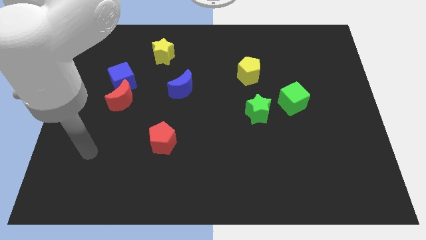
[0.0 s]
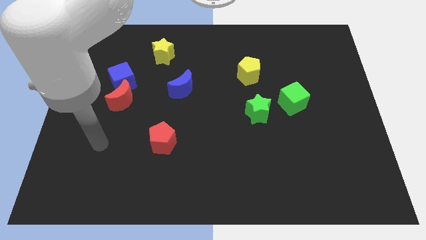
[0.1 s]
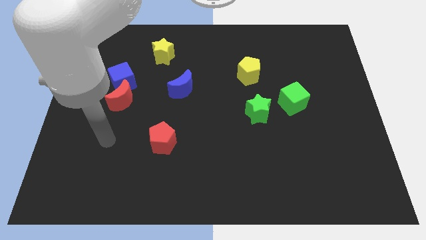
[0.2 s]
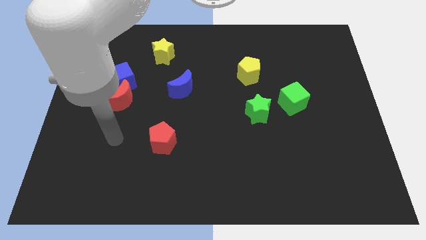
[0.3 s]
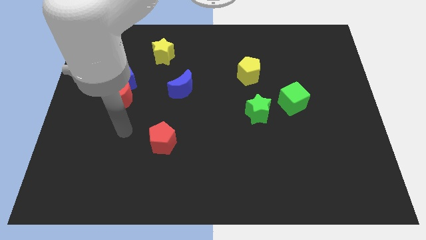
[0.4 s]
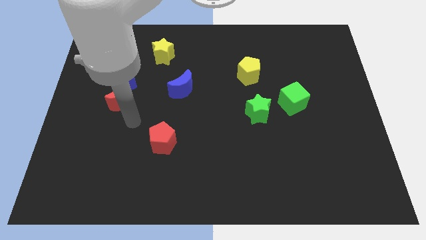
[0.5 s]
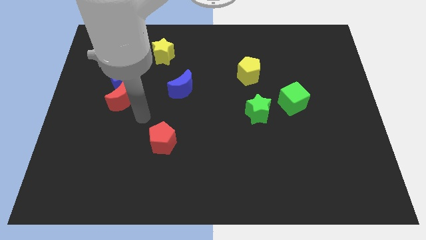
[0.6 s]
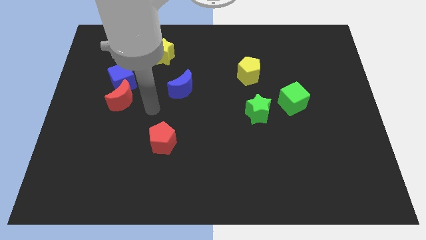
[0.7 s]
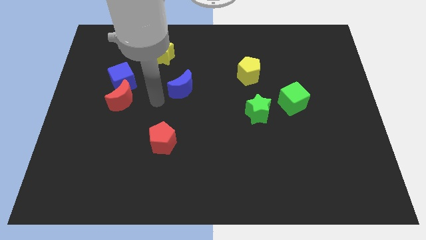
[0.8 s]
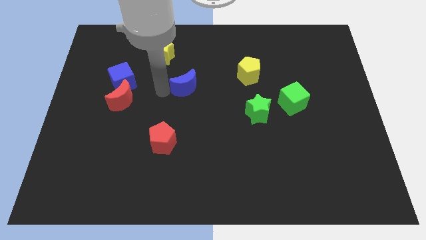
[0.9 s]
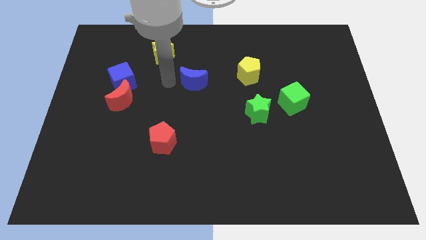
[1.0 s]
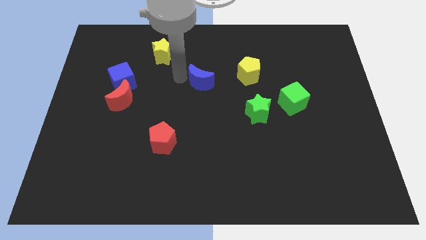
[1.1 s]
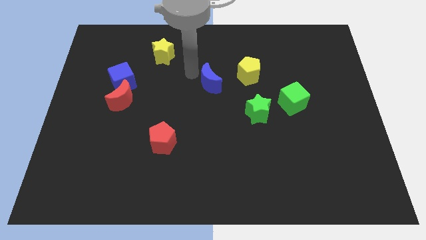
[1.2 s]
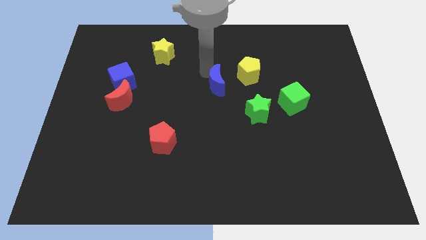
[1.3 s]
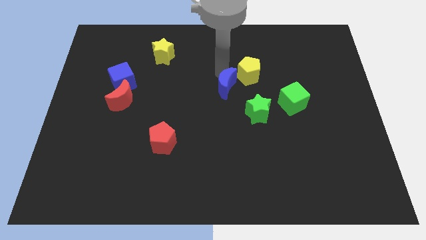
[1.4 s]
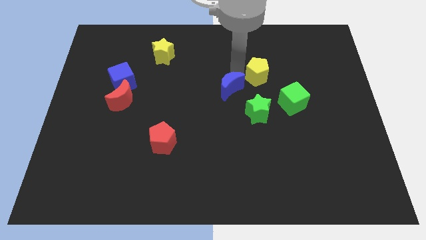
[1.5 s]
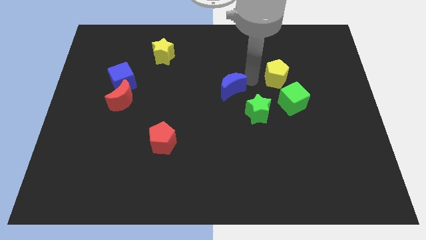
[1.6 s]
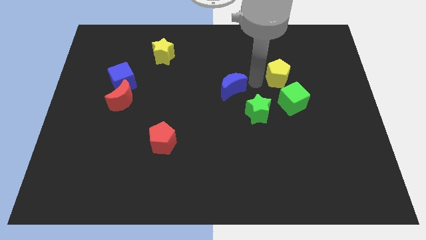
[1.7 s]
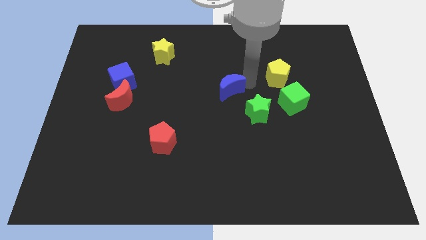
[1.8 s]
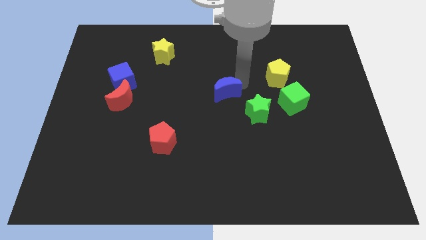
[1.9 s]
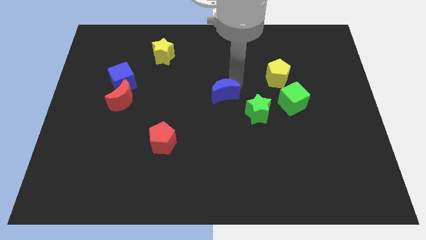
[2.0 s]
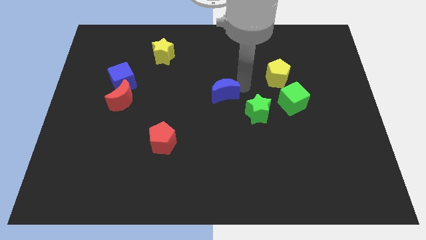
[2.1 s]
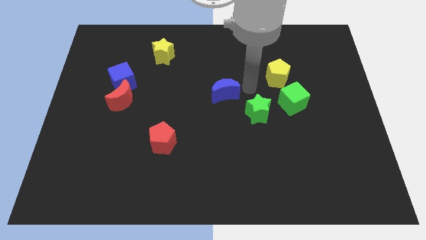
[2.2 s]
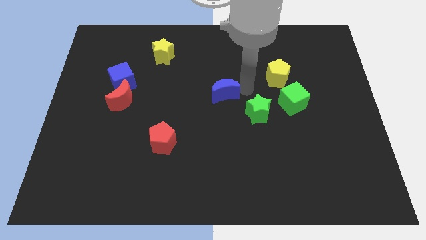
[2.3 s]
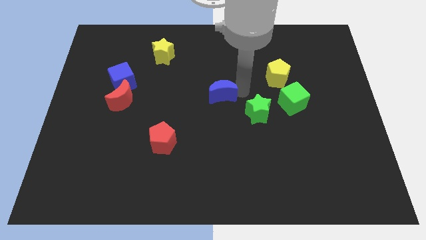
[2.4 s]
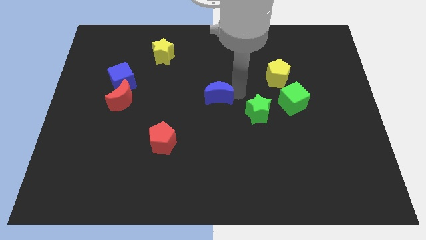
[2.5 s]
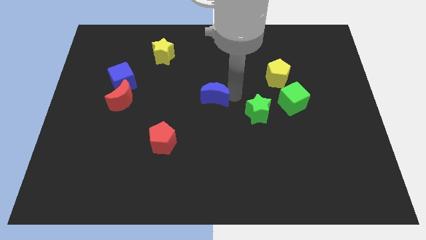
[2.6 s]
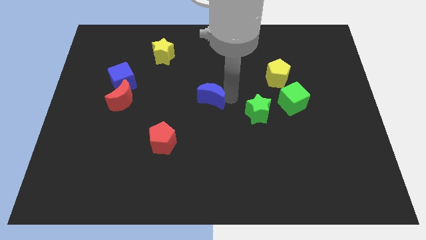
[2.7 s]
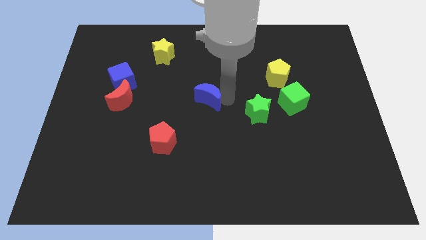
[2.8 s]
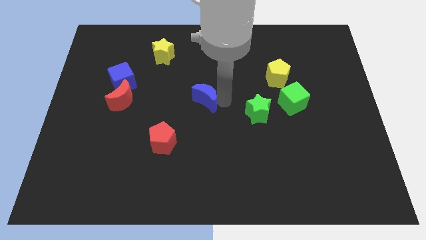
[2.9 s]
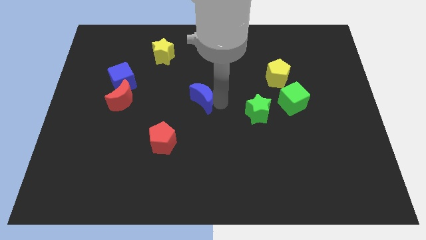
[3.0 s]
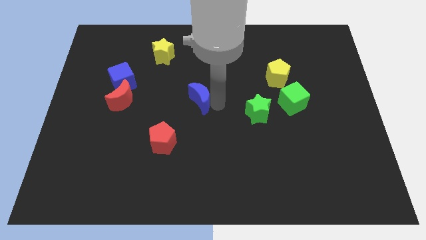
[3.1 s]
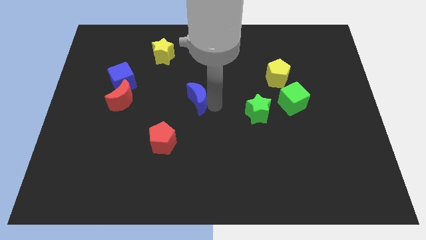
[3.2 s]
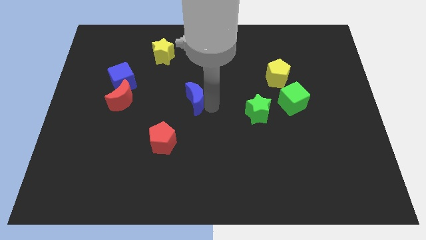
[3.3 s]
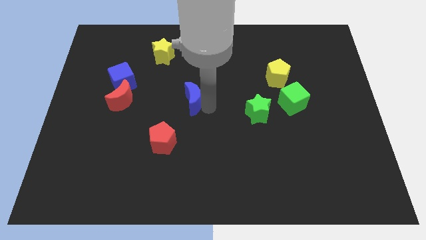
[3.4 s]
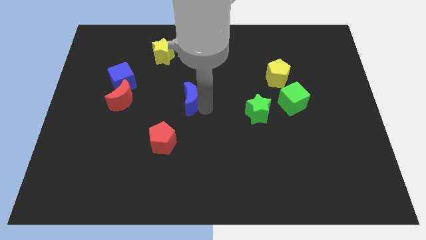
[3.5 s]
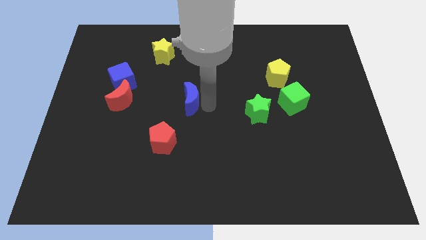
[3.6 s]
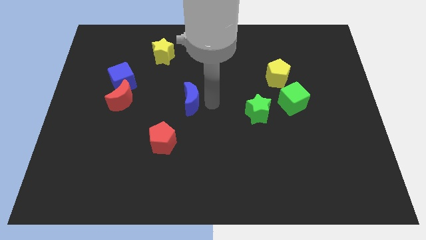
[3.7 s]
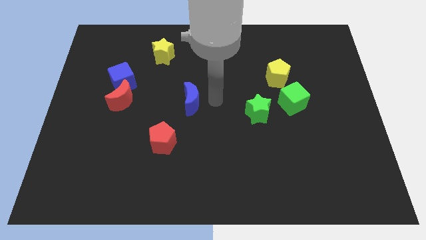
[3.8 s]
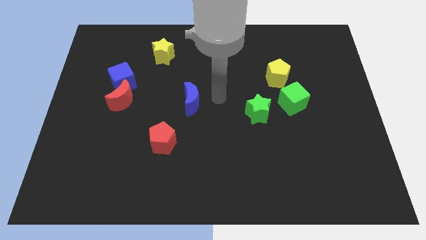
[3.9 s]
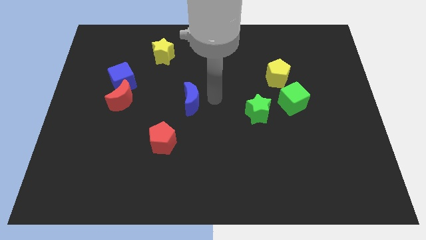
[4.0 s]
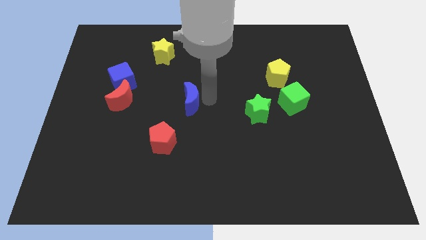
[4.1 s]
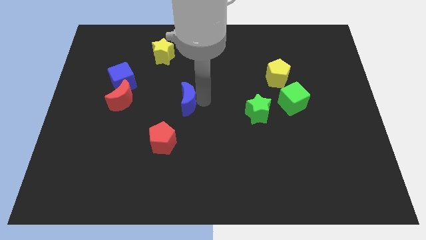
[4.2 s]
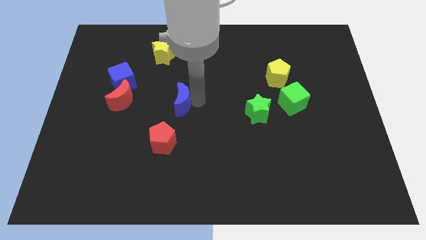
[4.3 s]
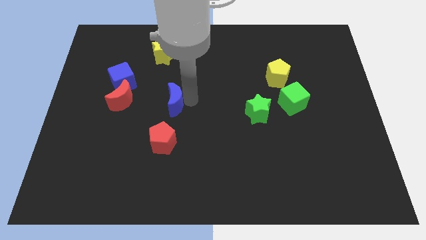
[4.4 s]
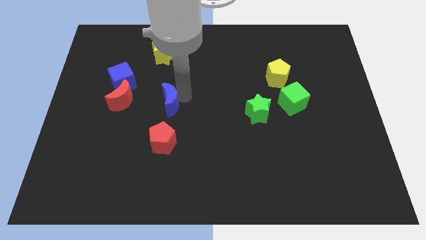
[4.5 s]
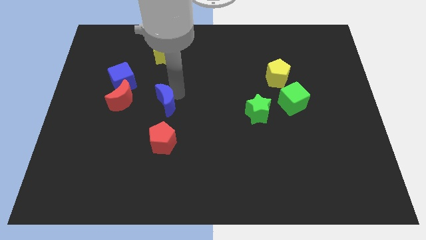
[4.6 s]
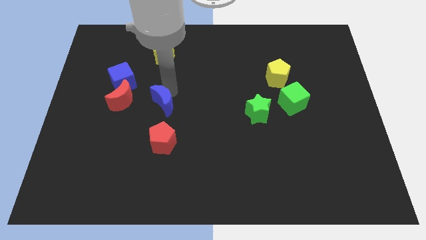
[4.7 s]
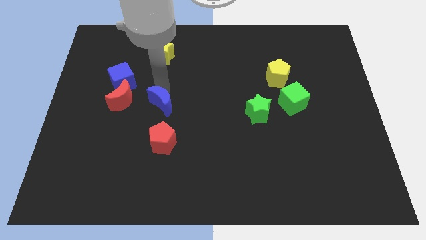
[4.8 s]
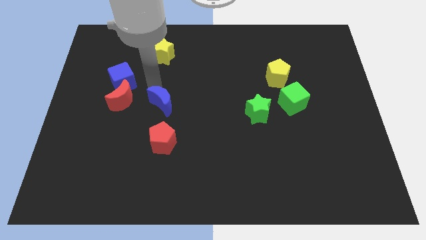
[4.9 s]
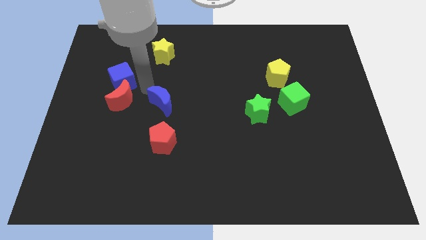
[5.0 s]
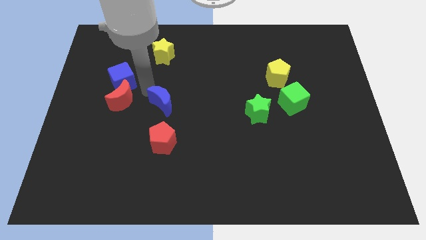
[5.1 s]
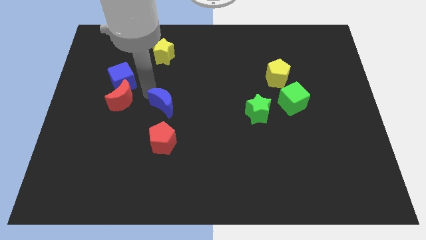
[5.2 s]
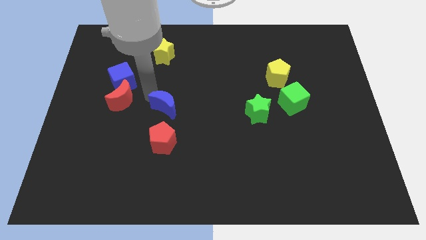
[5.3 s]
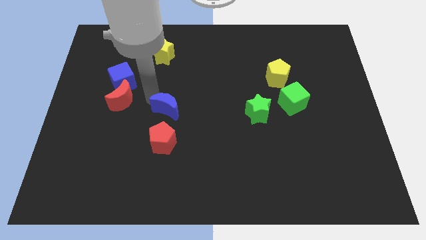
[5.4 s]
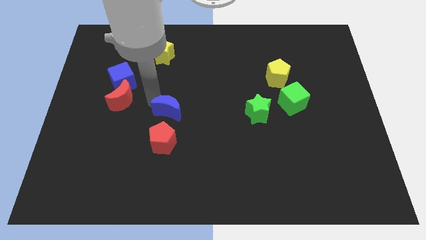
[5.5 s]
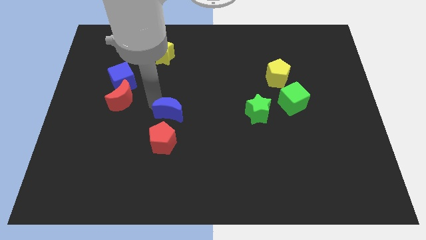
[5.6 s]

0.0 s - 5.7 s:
move the blue moon downwards somewhat

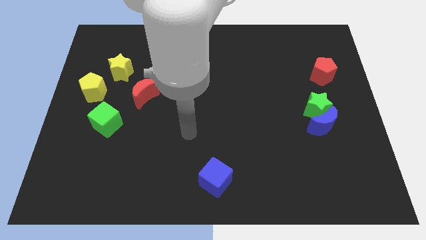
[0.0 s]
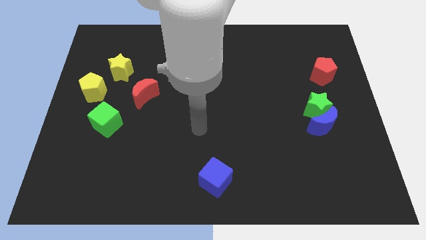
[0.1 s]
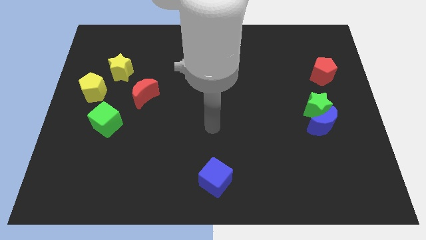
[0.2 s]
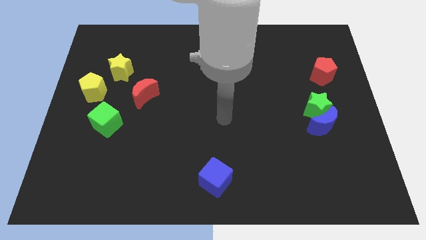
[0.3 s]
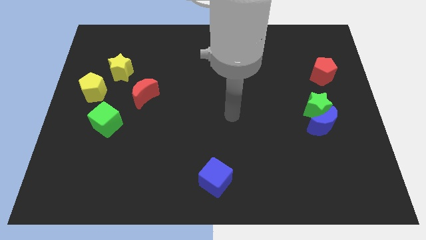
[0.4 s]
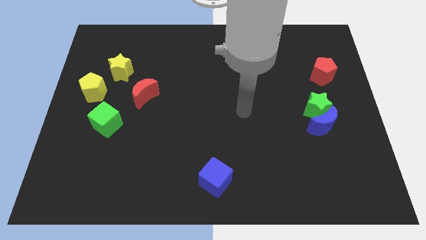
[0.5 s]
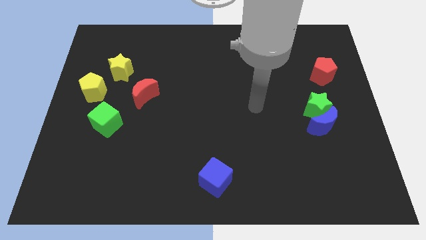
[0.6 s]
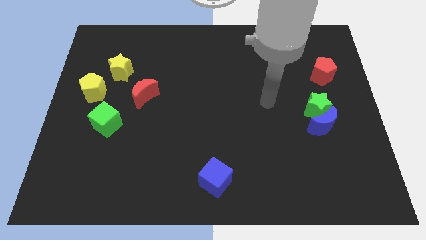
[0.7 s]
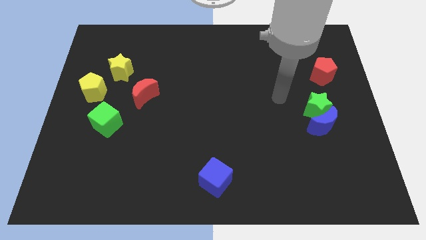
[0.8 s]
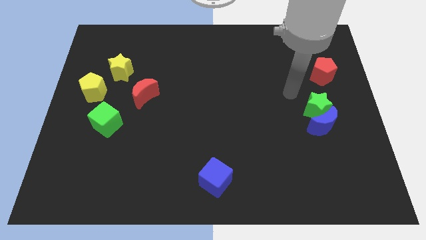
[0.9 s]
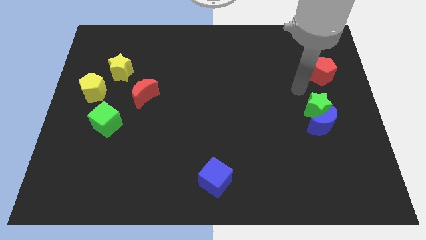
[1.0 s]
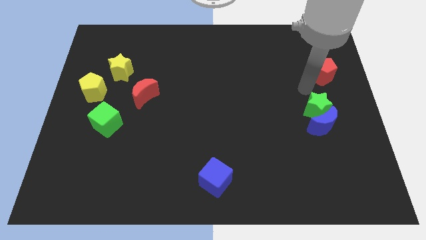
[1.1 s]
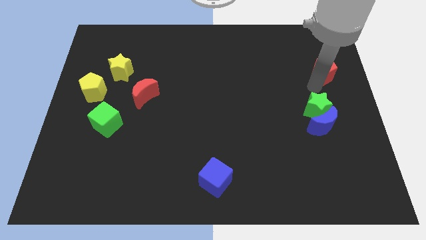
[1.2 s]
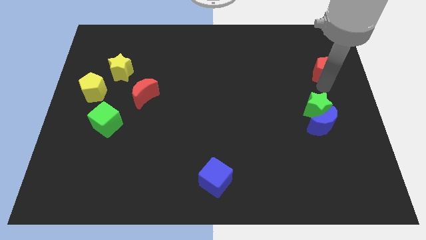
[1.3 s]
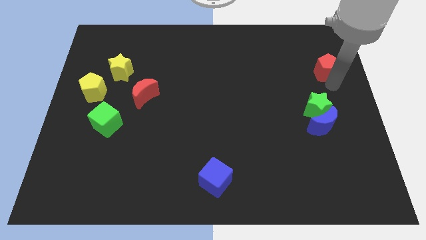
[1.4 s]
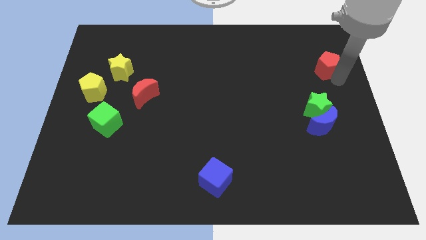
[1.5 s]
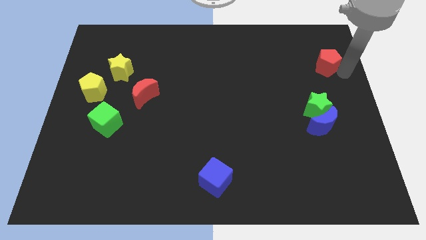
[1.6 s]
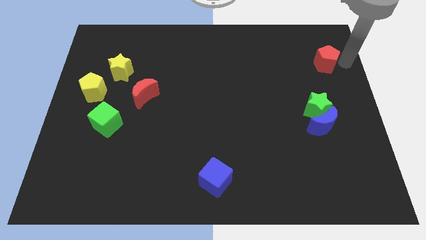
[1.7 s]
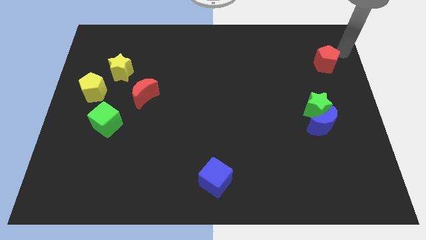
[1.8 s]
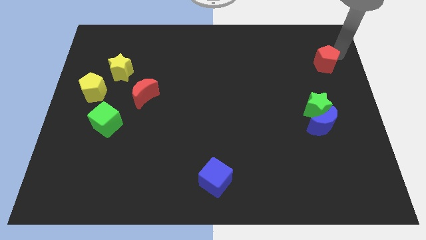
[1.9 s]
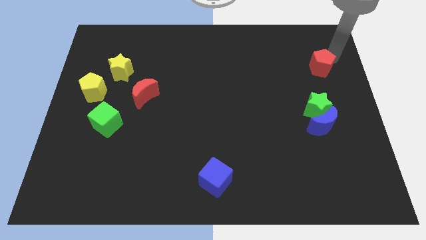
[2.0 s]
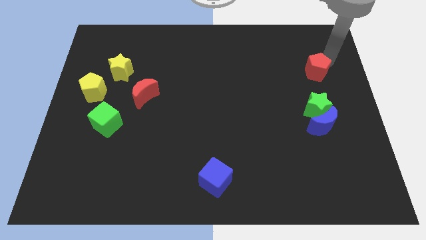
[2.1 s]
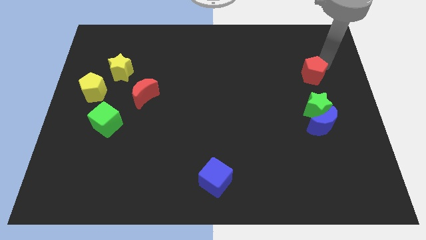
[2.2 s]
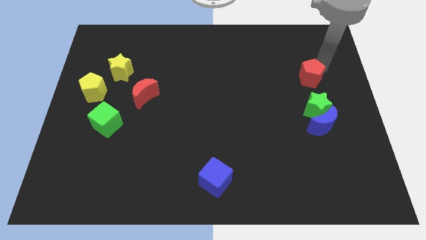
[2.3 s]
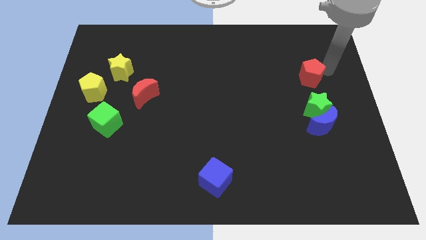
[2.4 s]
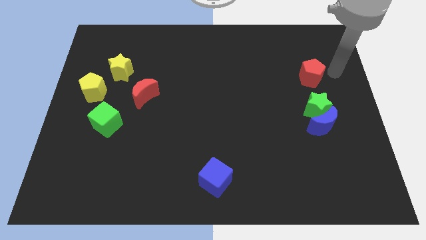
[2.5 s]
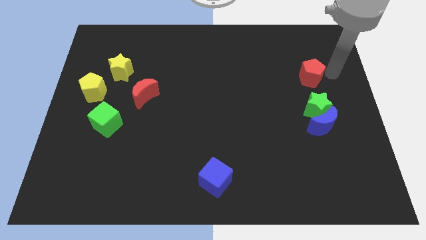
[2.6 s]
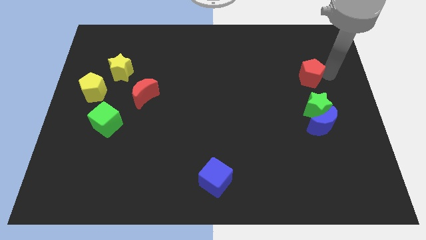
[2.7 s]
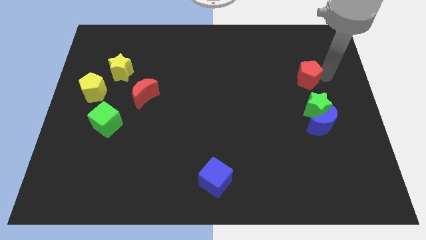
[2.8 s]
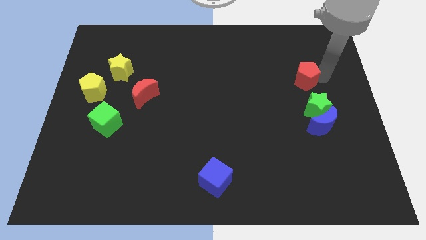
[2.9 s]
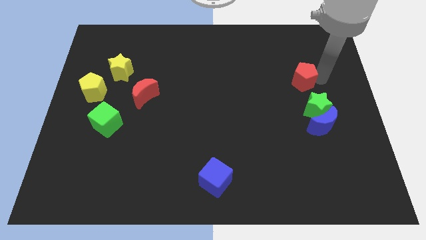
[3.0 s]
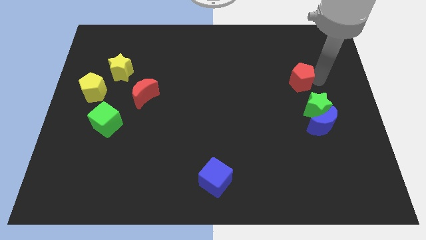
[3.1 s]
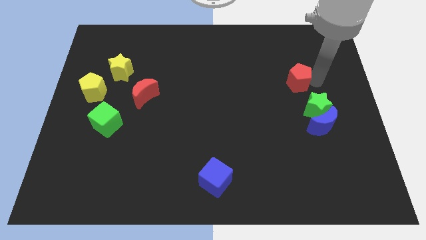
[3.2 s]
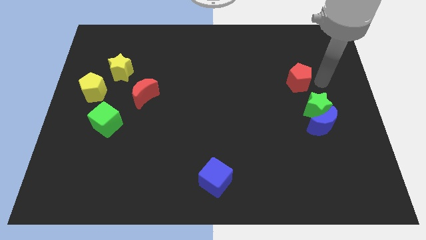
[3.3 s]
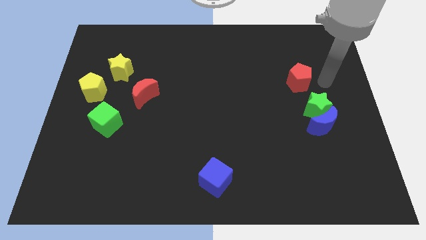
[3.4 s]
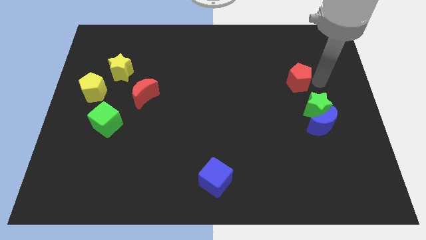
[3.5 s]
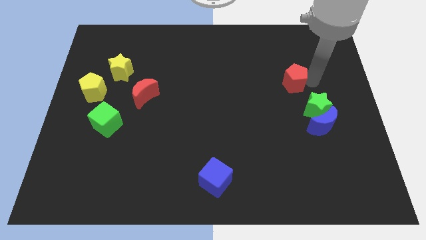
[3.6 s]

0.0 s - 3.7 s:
push the red pentagon left a bit
